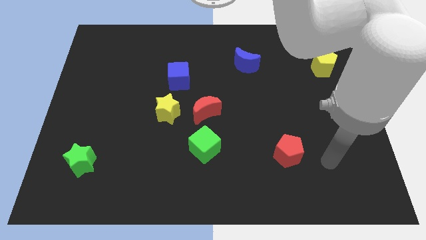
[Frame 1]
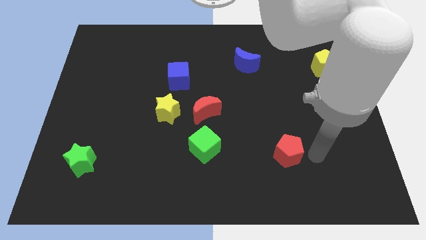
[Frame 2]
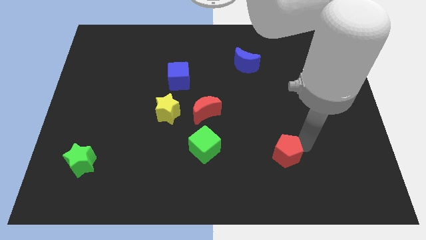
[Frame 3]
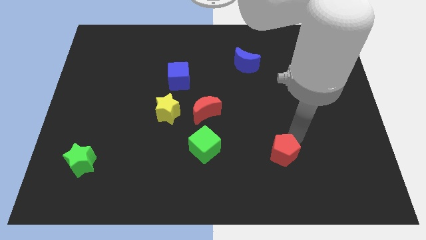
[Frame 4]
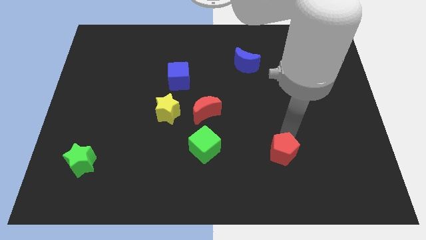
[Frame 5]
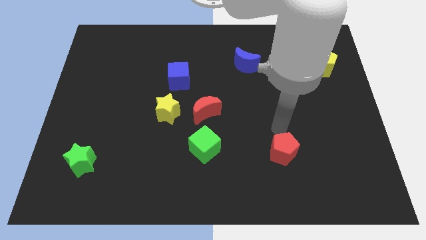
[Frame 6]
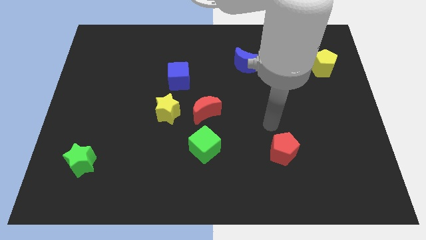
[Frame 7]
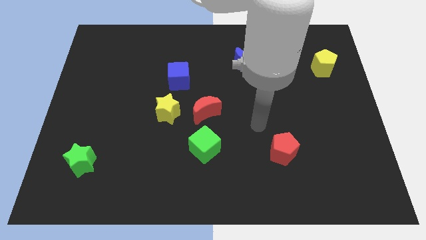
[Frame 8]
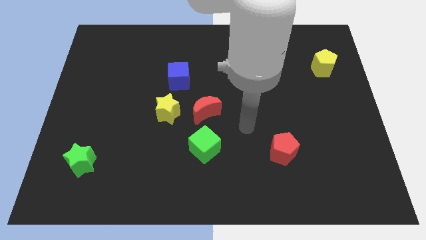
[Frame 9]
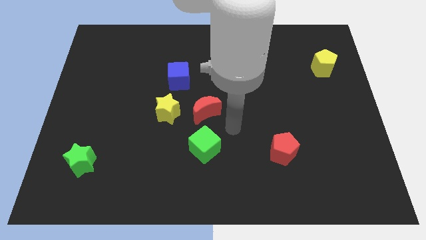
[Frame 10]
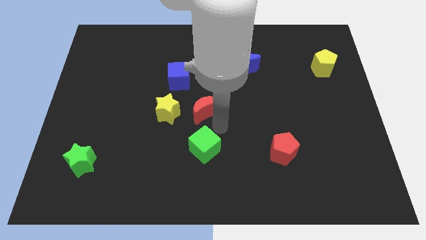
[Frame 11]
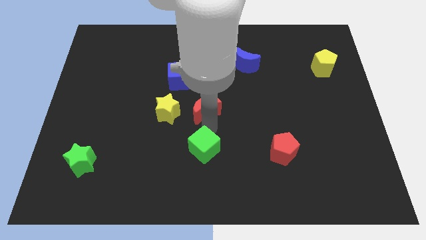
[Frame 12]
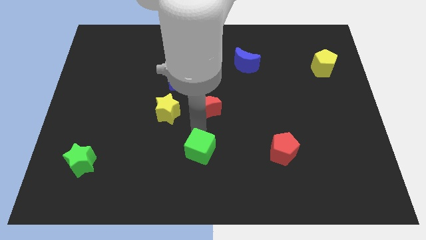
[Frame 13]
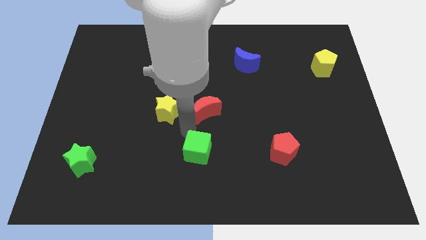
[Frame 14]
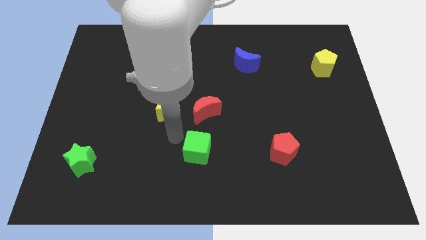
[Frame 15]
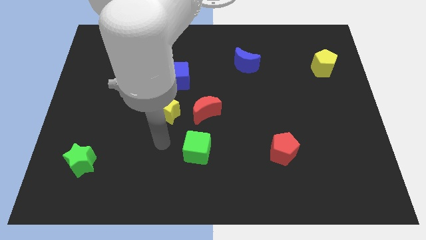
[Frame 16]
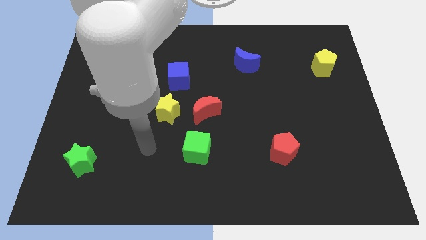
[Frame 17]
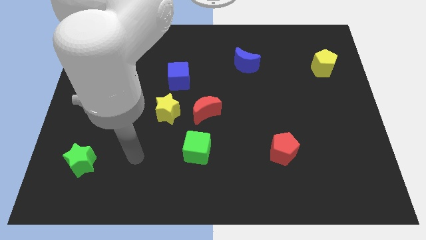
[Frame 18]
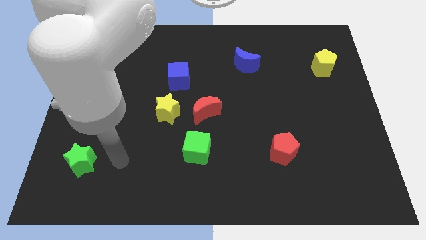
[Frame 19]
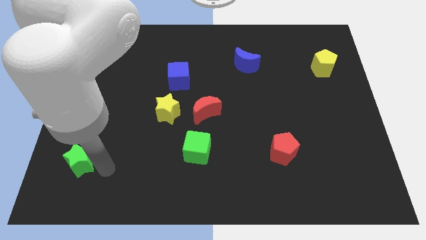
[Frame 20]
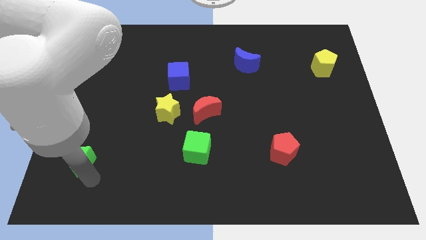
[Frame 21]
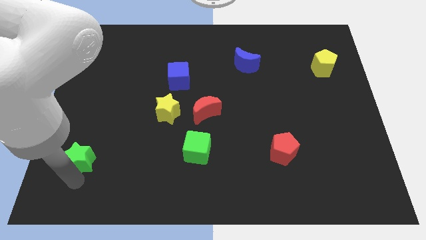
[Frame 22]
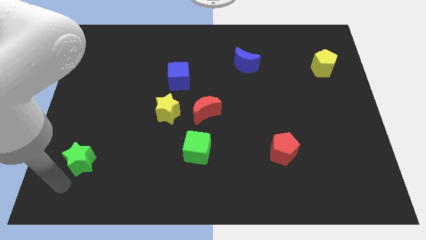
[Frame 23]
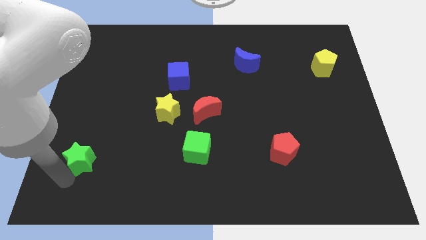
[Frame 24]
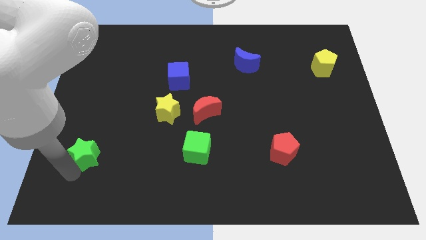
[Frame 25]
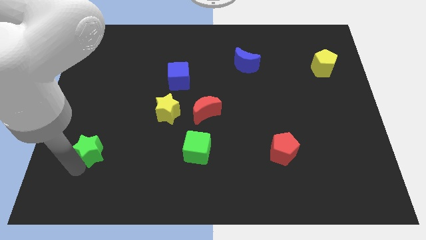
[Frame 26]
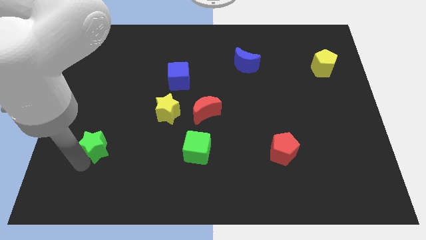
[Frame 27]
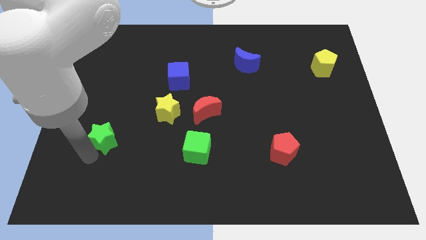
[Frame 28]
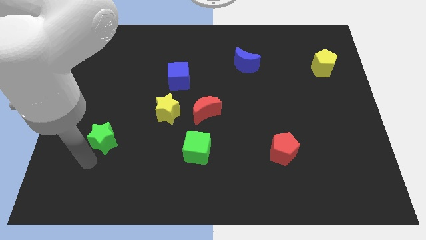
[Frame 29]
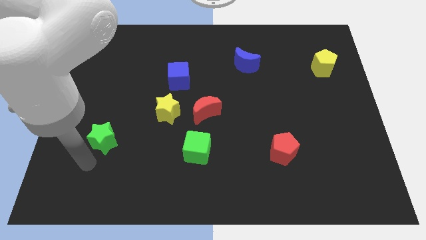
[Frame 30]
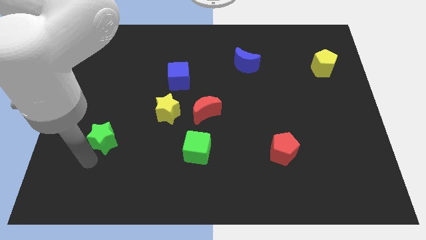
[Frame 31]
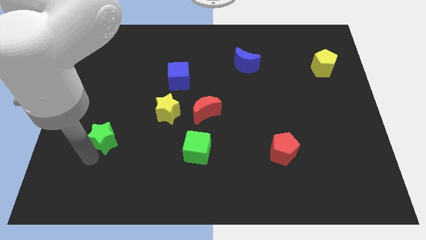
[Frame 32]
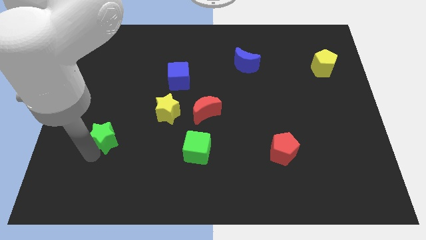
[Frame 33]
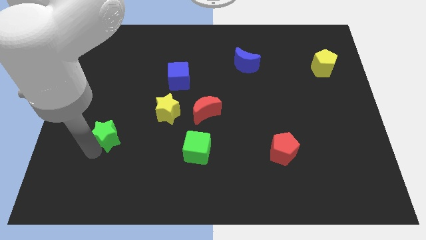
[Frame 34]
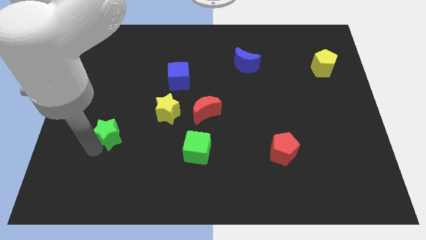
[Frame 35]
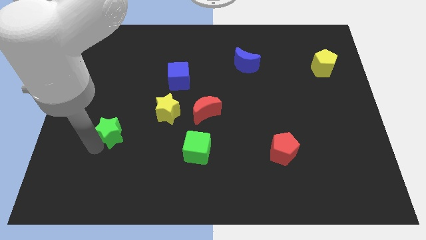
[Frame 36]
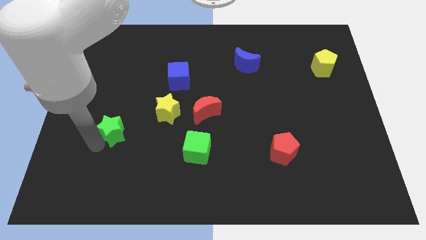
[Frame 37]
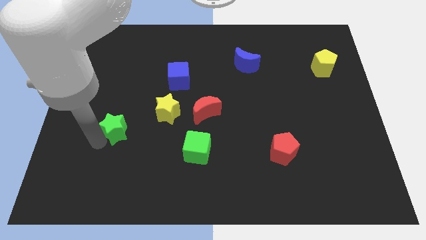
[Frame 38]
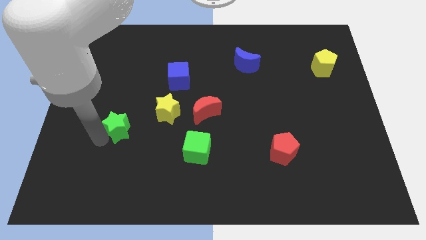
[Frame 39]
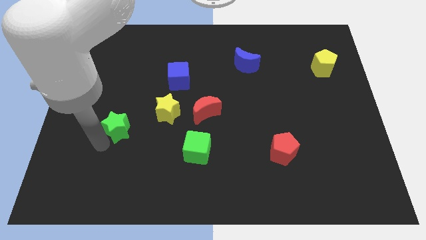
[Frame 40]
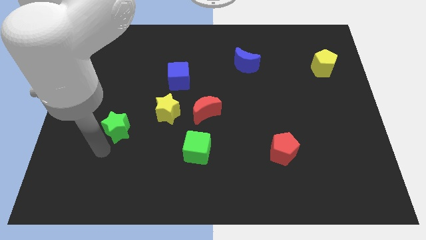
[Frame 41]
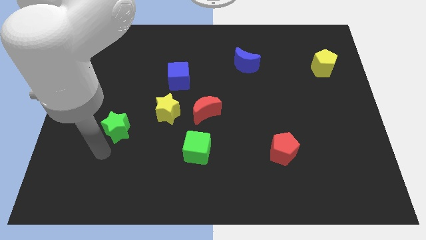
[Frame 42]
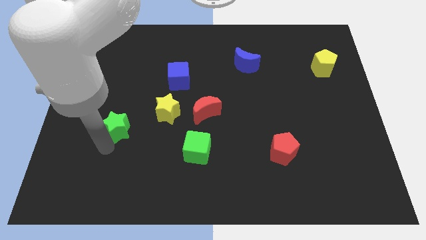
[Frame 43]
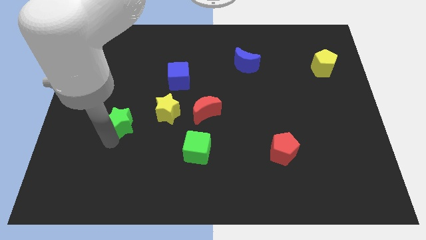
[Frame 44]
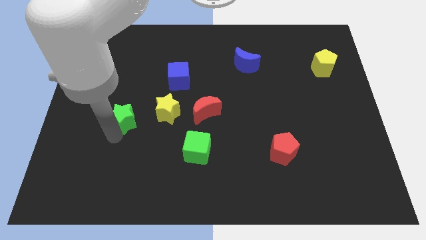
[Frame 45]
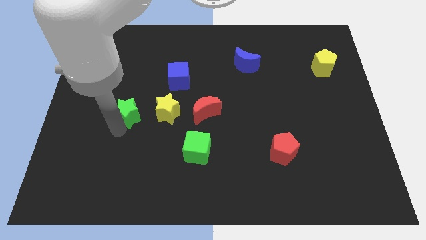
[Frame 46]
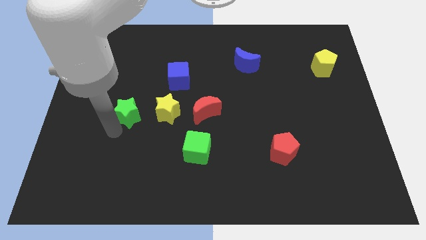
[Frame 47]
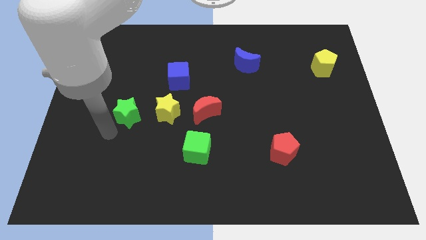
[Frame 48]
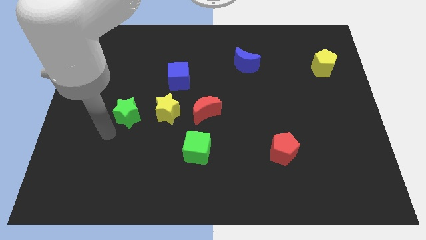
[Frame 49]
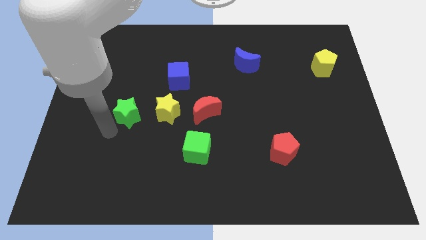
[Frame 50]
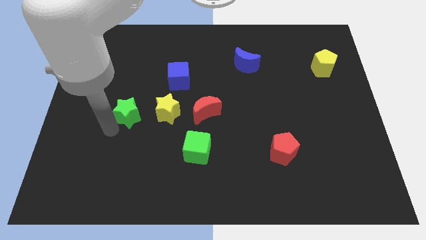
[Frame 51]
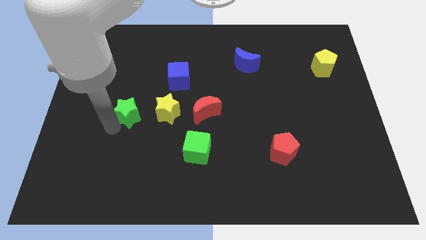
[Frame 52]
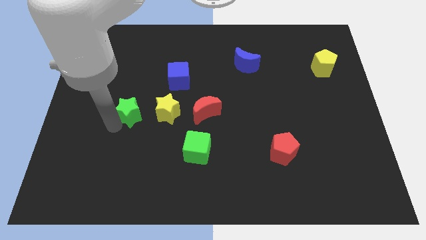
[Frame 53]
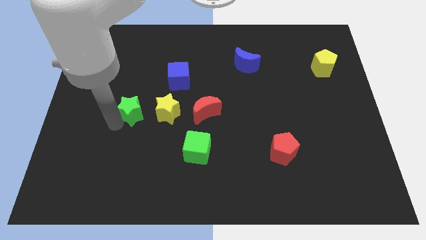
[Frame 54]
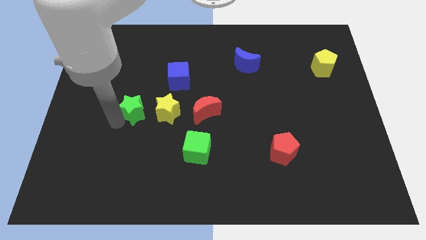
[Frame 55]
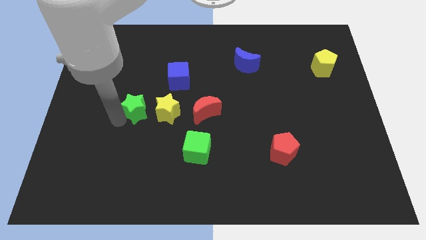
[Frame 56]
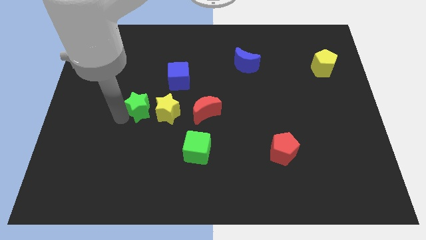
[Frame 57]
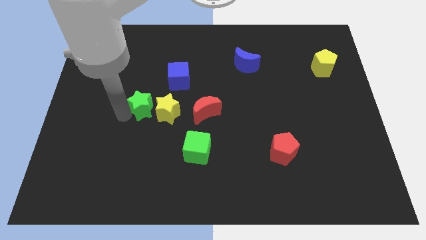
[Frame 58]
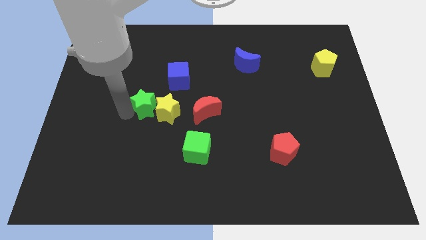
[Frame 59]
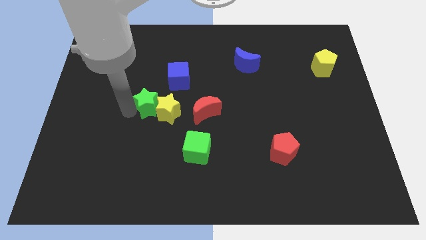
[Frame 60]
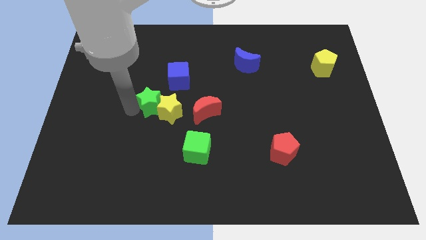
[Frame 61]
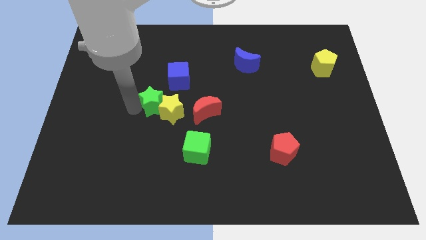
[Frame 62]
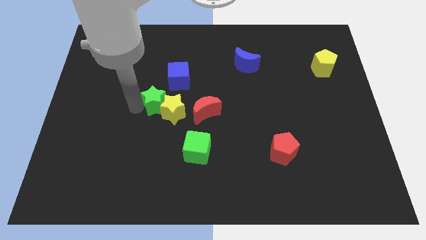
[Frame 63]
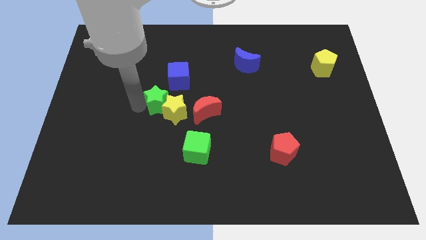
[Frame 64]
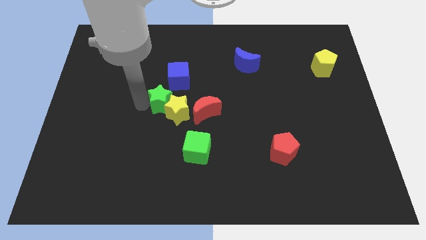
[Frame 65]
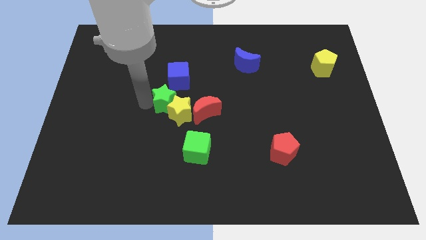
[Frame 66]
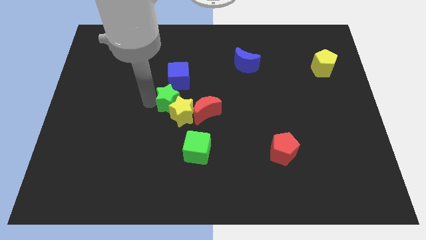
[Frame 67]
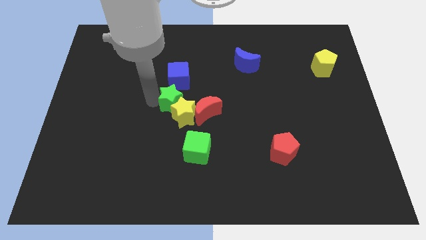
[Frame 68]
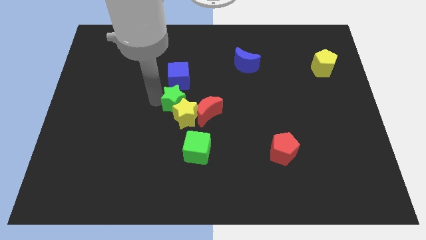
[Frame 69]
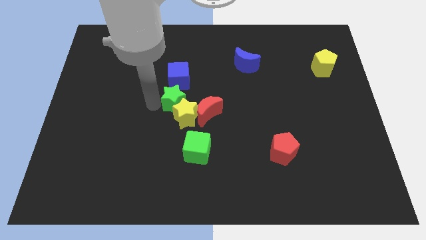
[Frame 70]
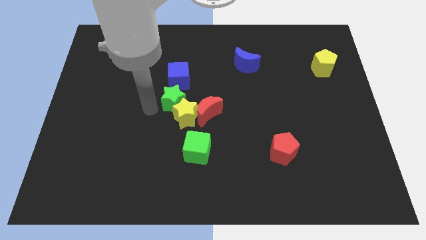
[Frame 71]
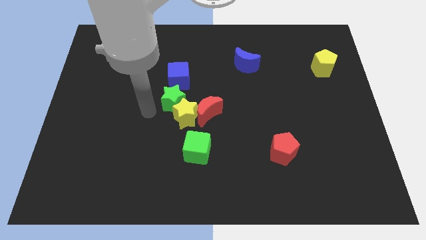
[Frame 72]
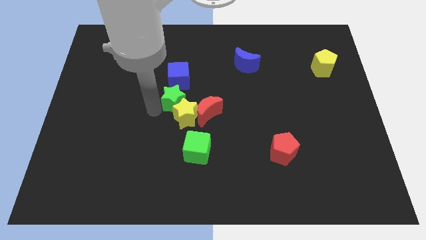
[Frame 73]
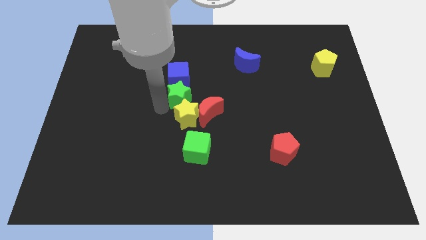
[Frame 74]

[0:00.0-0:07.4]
slide the green star to the bottom right side of the blue cube

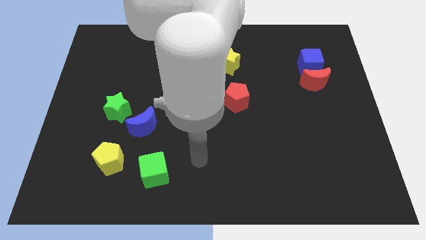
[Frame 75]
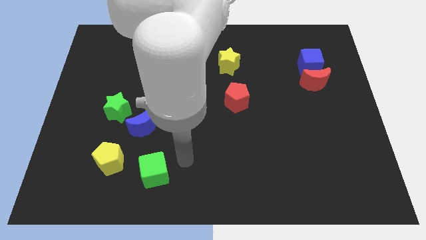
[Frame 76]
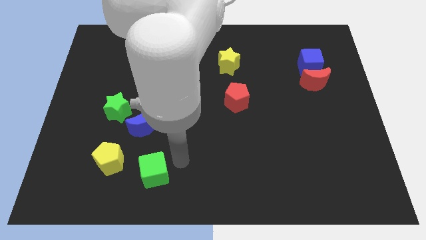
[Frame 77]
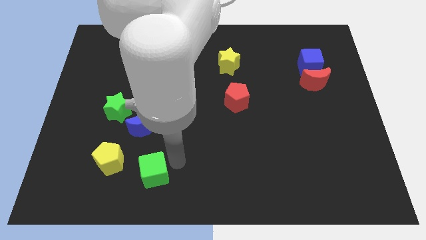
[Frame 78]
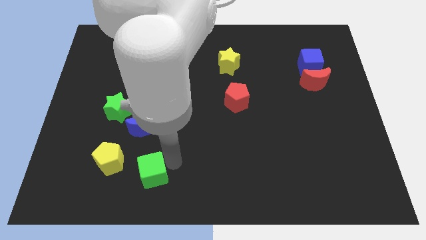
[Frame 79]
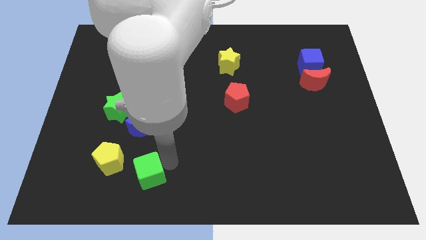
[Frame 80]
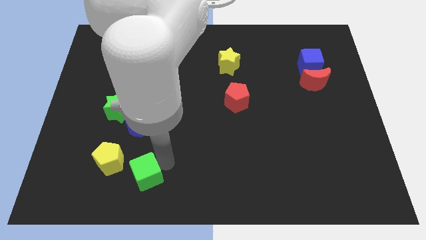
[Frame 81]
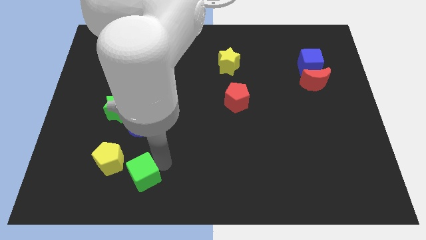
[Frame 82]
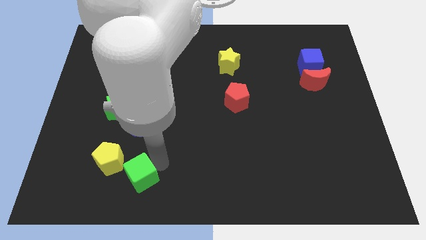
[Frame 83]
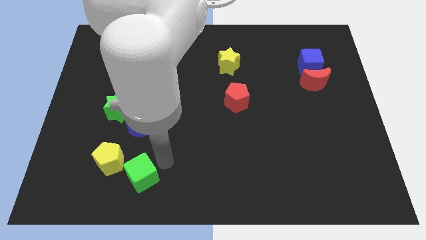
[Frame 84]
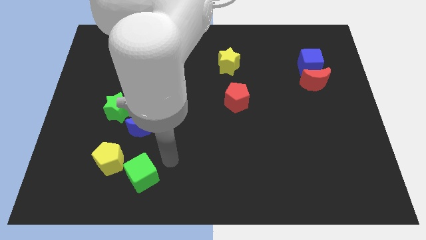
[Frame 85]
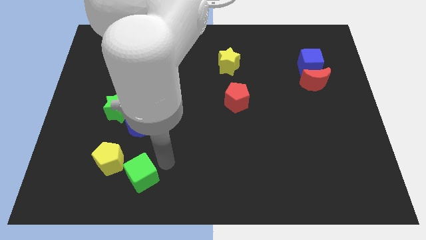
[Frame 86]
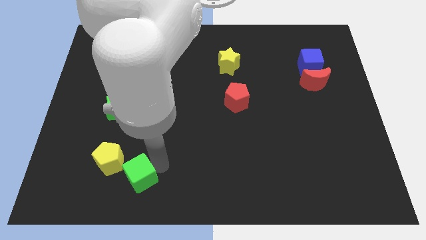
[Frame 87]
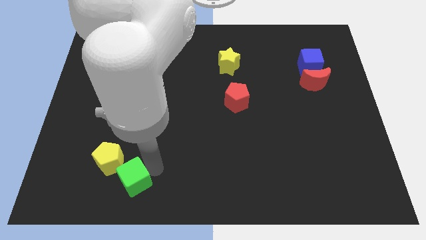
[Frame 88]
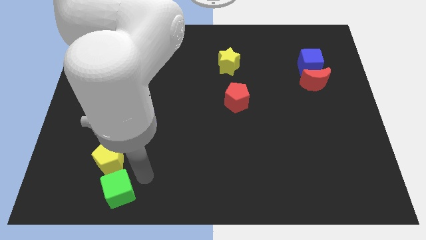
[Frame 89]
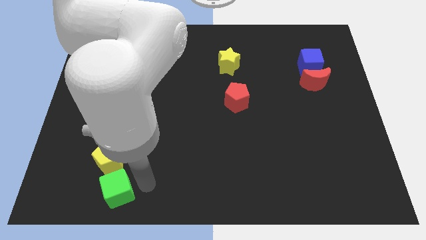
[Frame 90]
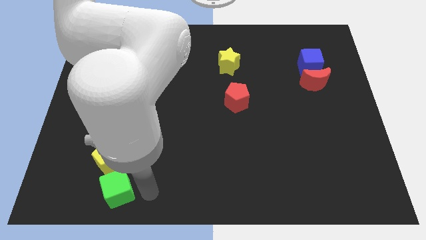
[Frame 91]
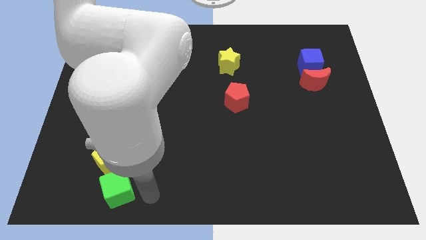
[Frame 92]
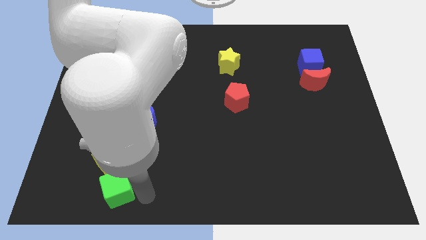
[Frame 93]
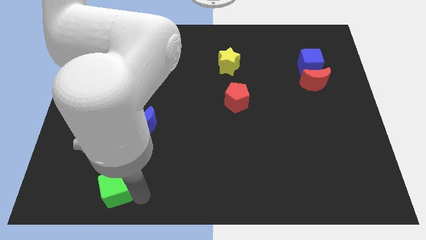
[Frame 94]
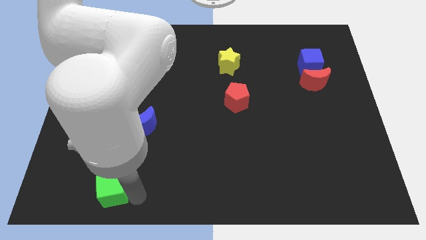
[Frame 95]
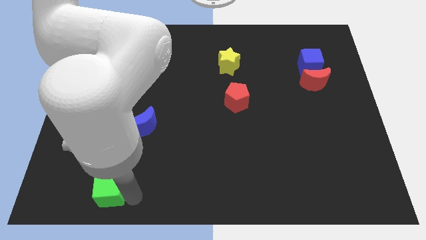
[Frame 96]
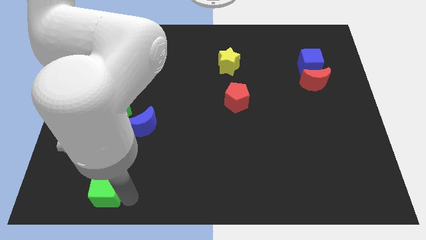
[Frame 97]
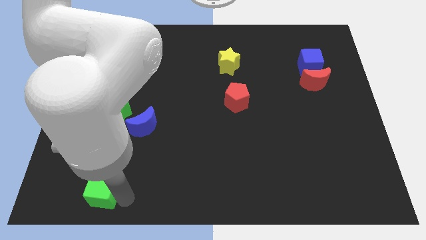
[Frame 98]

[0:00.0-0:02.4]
put the green cube diagonally down and to the left of the yellow pentagon
